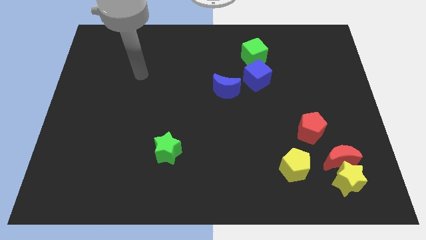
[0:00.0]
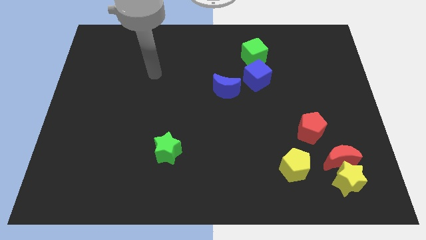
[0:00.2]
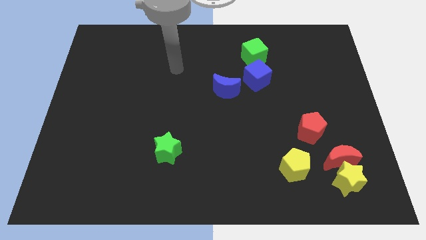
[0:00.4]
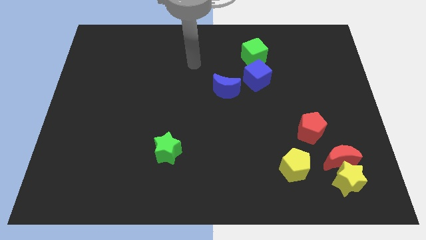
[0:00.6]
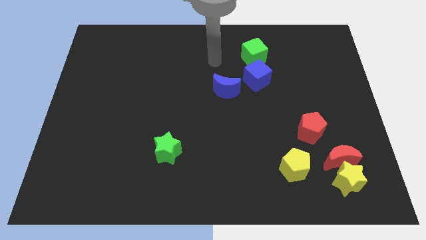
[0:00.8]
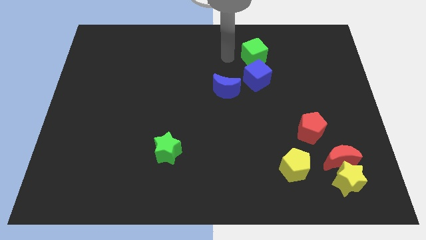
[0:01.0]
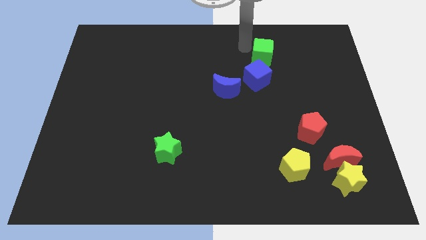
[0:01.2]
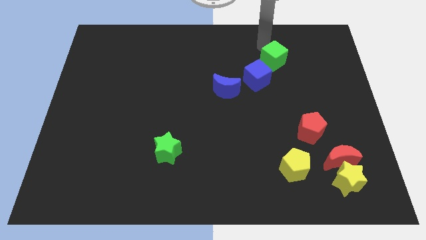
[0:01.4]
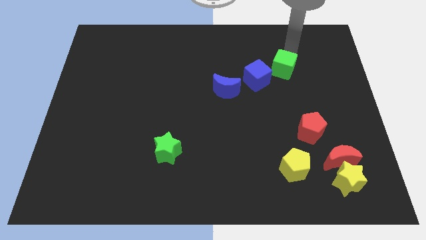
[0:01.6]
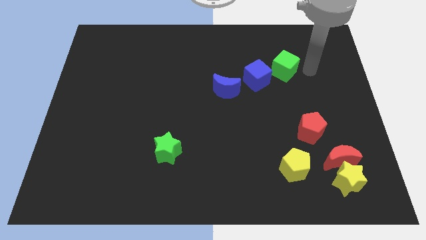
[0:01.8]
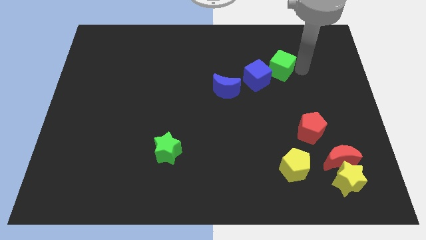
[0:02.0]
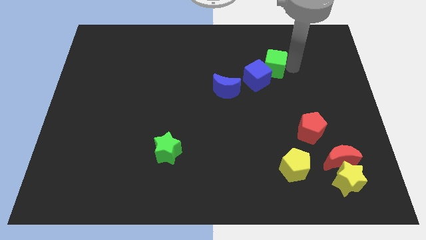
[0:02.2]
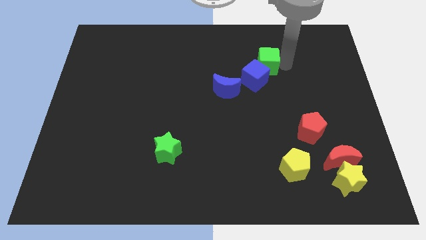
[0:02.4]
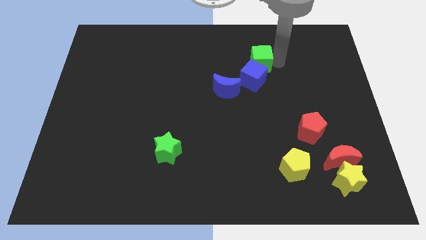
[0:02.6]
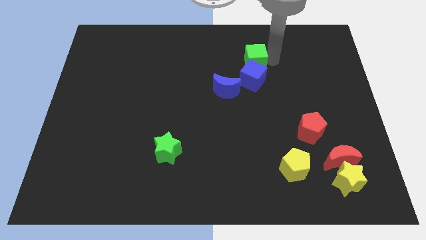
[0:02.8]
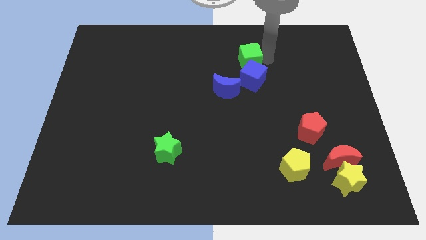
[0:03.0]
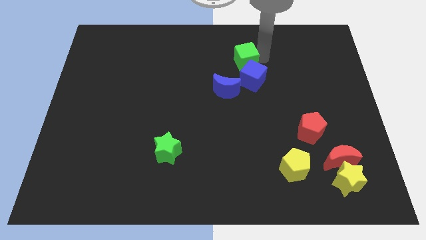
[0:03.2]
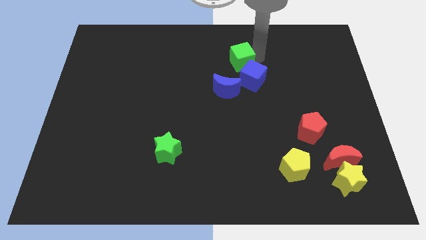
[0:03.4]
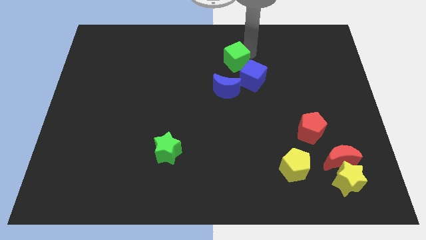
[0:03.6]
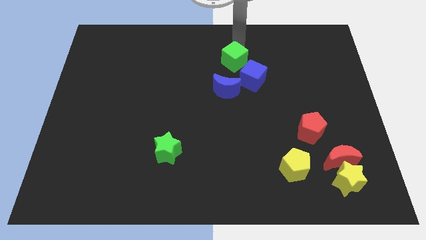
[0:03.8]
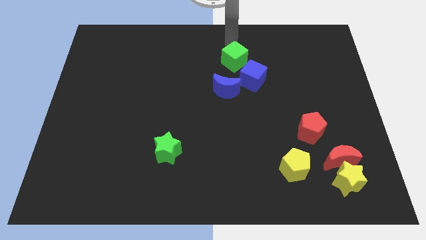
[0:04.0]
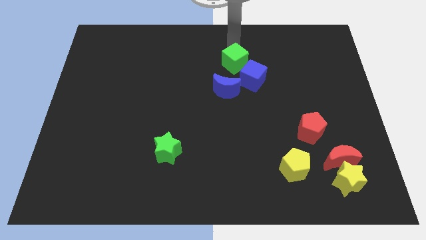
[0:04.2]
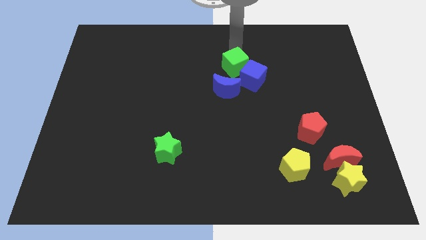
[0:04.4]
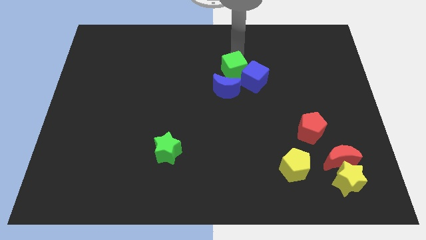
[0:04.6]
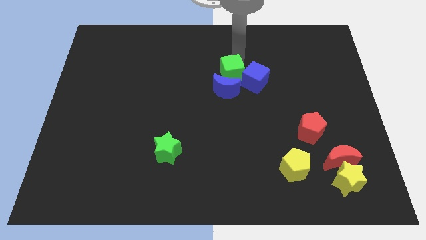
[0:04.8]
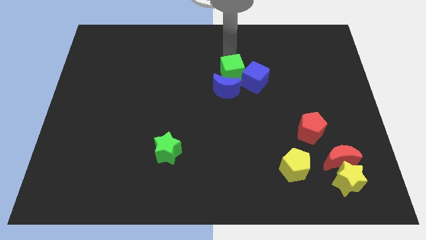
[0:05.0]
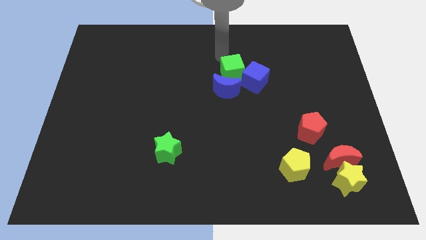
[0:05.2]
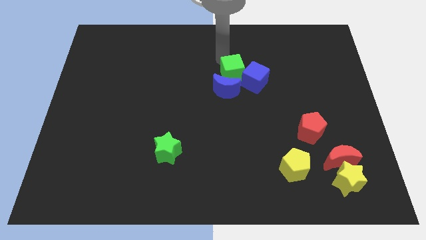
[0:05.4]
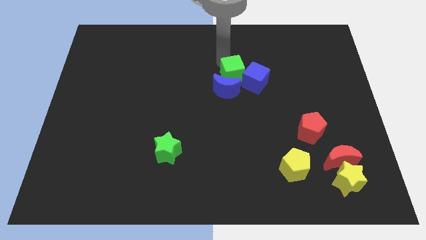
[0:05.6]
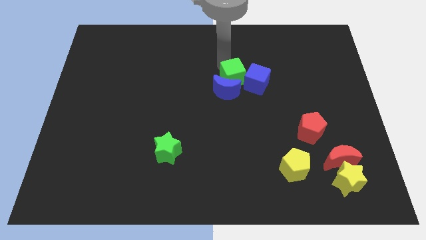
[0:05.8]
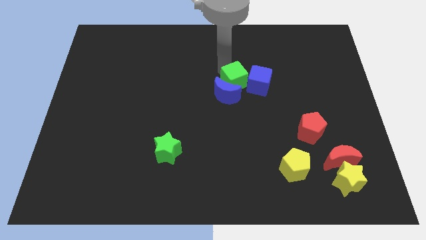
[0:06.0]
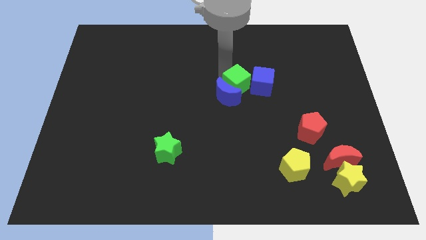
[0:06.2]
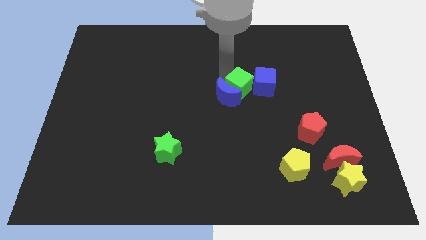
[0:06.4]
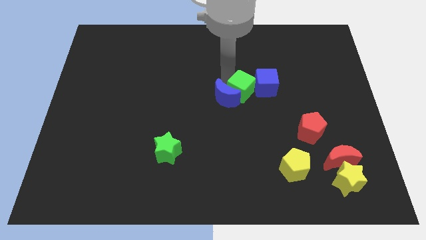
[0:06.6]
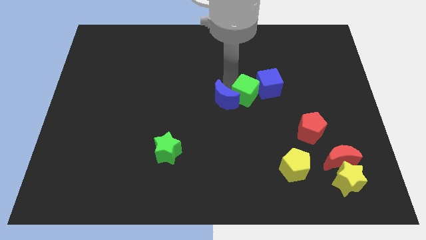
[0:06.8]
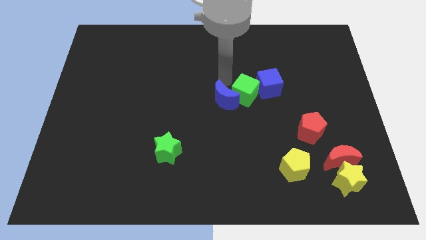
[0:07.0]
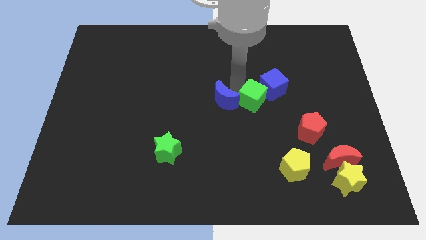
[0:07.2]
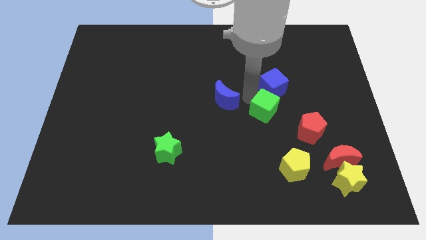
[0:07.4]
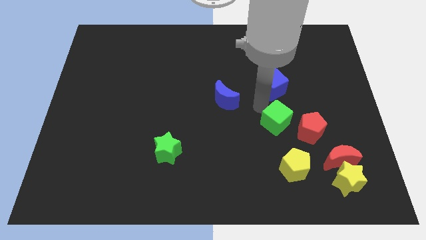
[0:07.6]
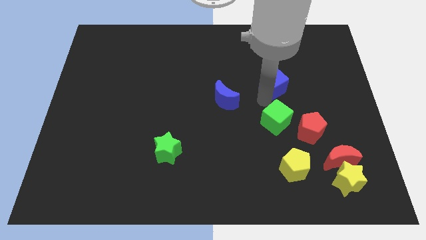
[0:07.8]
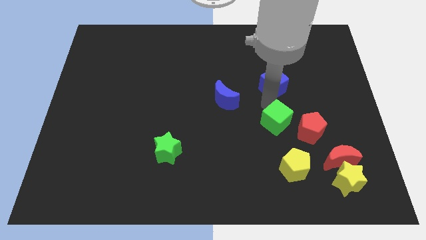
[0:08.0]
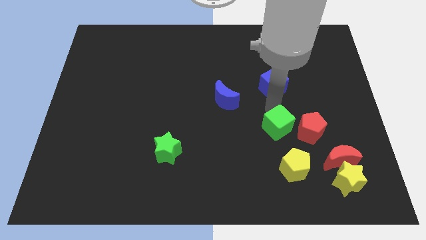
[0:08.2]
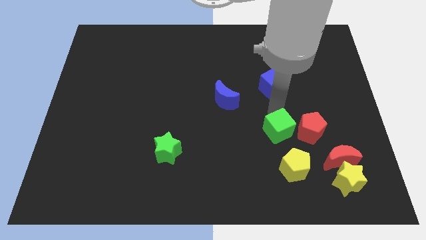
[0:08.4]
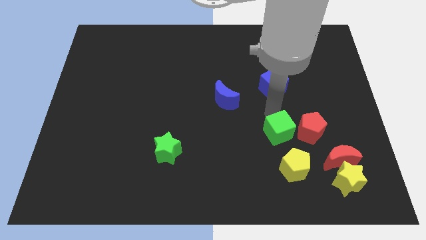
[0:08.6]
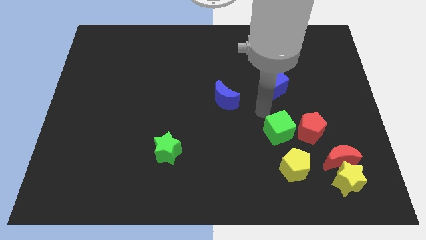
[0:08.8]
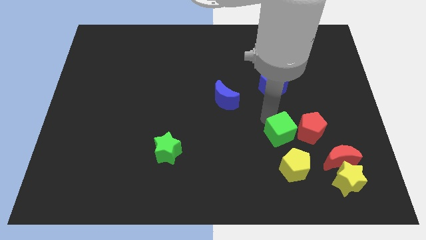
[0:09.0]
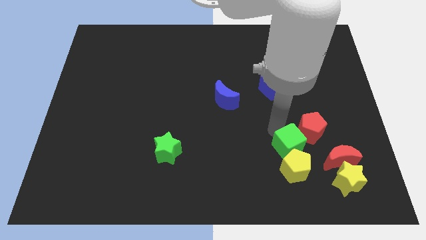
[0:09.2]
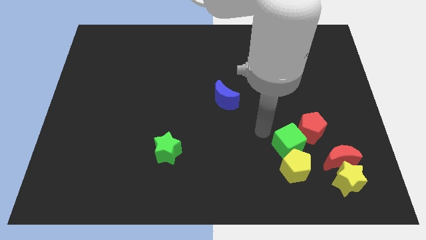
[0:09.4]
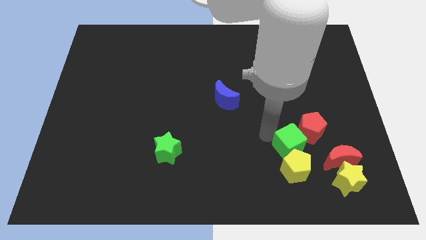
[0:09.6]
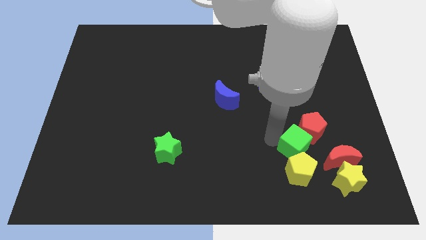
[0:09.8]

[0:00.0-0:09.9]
push the green cube to the top left of the yellow star

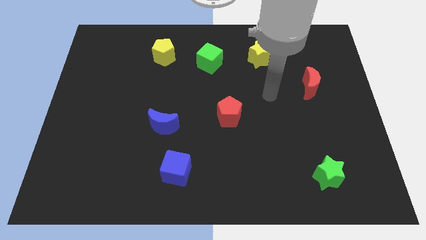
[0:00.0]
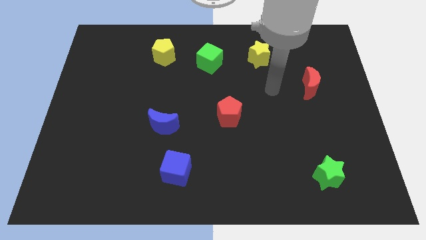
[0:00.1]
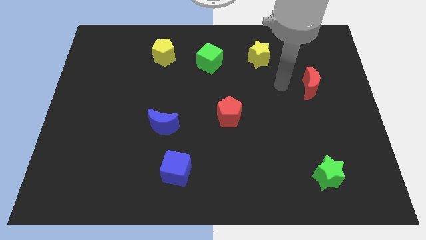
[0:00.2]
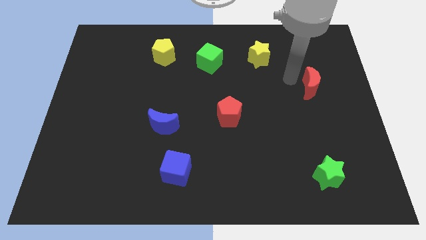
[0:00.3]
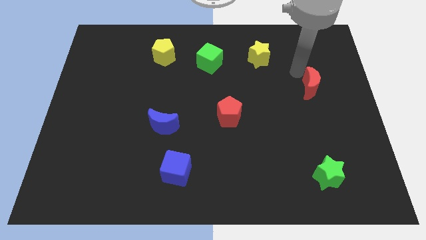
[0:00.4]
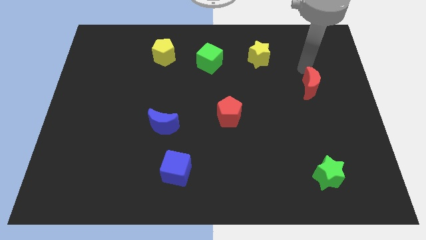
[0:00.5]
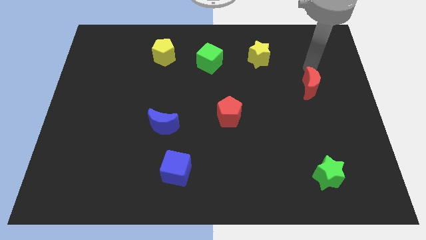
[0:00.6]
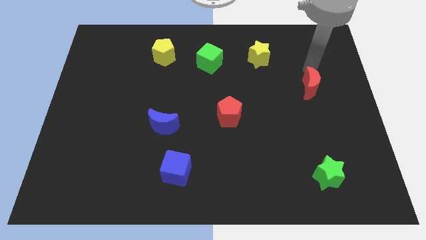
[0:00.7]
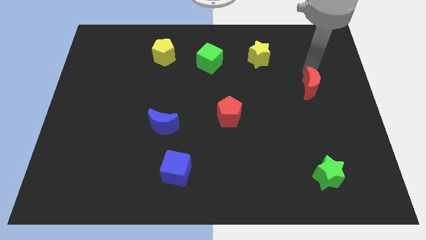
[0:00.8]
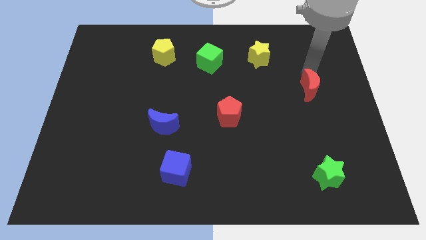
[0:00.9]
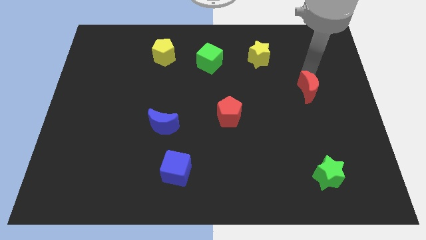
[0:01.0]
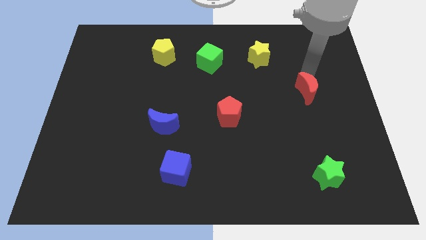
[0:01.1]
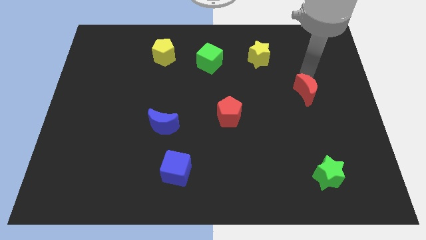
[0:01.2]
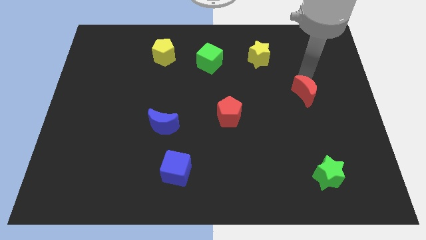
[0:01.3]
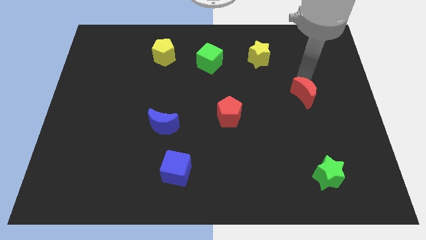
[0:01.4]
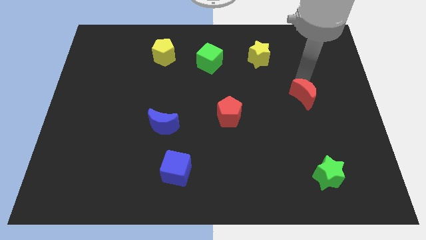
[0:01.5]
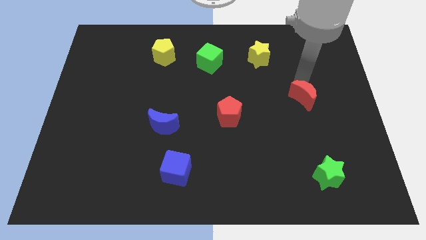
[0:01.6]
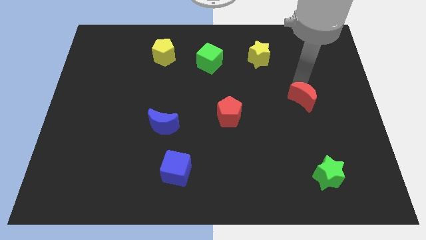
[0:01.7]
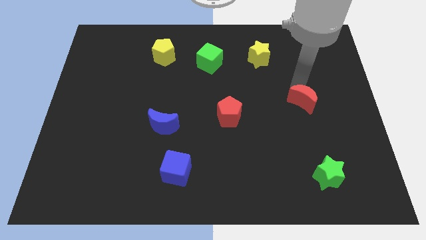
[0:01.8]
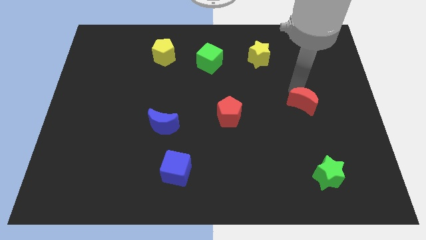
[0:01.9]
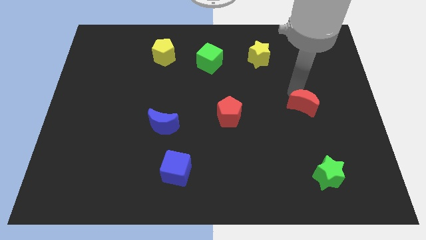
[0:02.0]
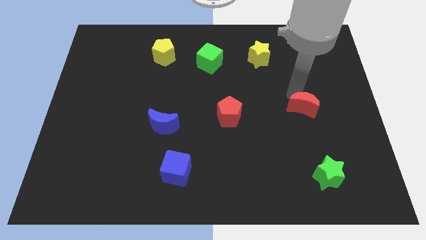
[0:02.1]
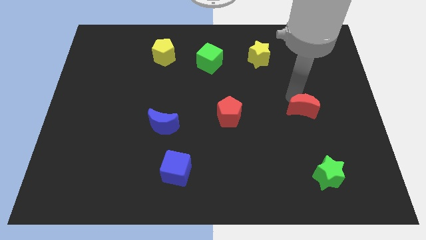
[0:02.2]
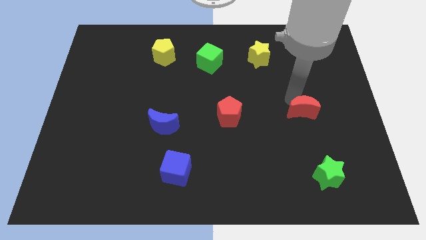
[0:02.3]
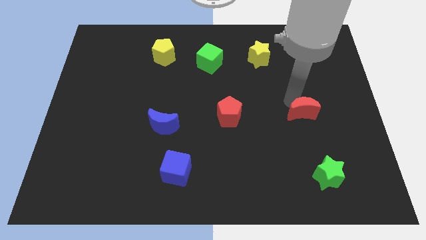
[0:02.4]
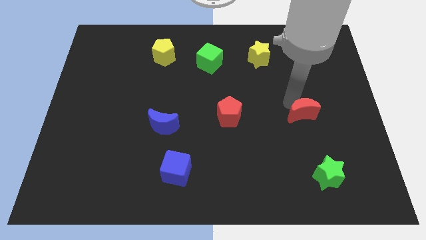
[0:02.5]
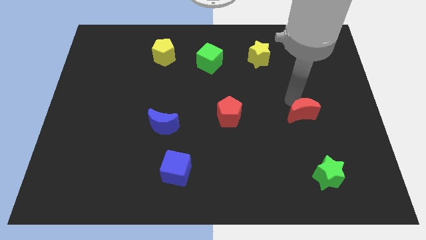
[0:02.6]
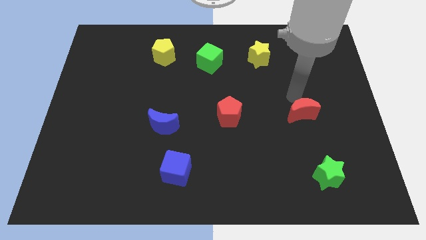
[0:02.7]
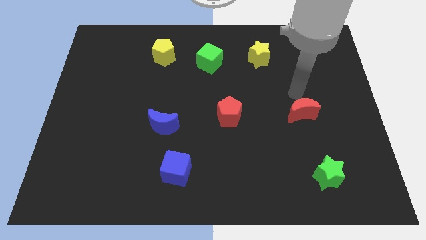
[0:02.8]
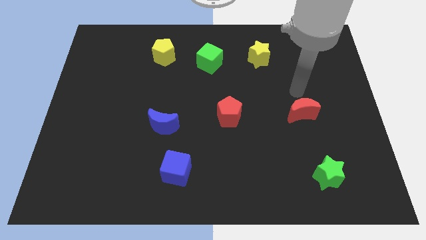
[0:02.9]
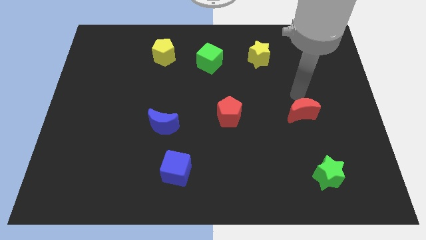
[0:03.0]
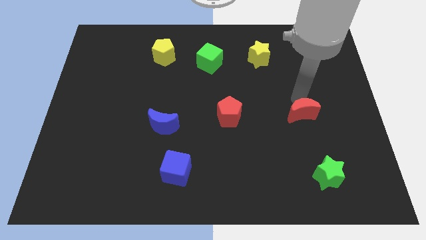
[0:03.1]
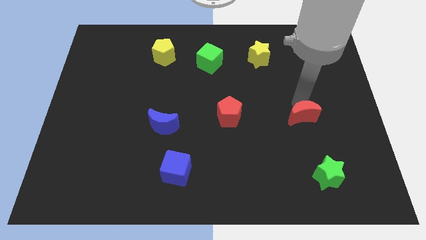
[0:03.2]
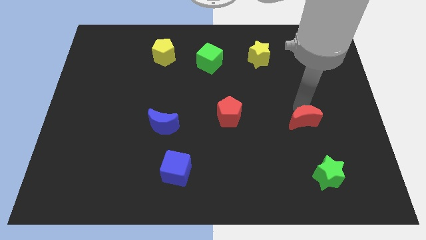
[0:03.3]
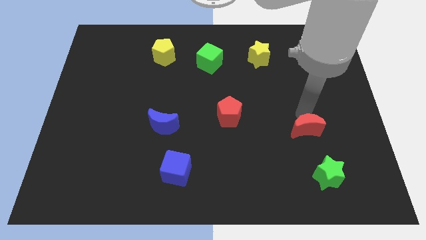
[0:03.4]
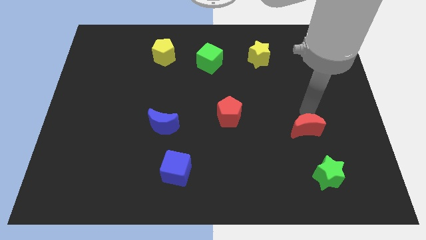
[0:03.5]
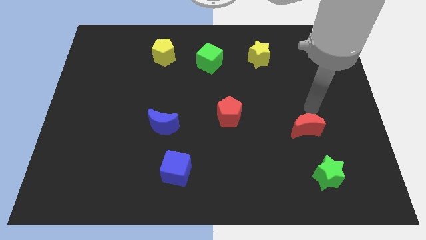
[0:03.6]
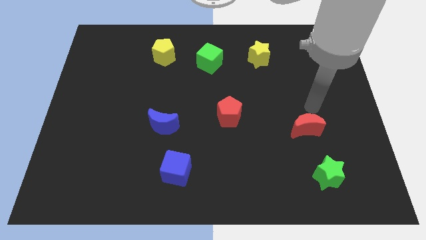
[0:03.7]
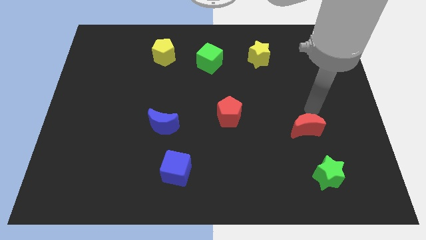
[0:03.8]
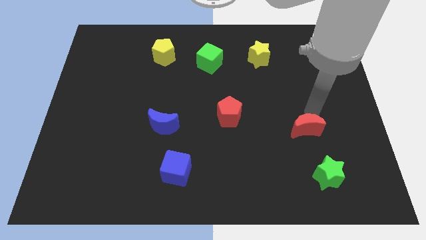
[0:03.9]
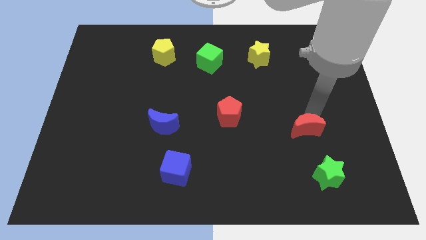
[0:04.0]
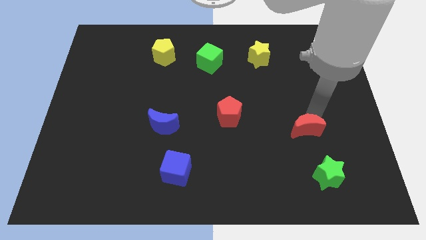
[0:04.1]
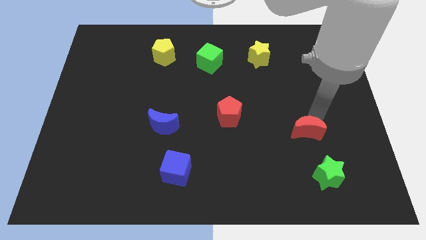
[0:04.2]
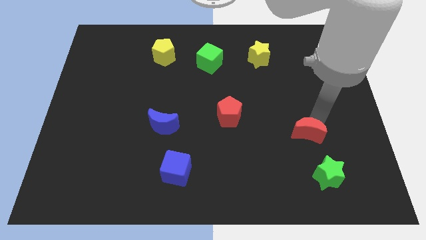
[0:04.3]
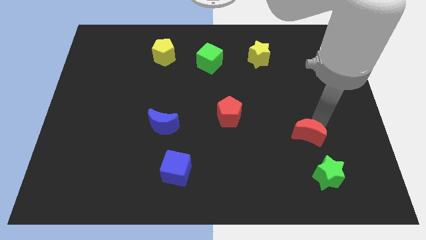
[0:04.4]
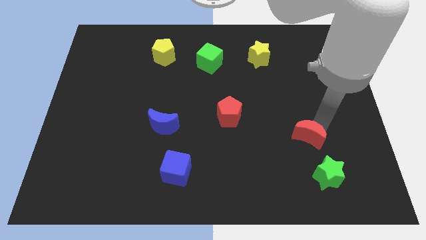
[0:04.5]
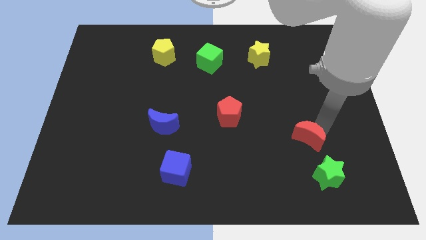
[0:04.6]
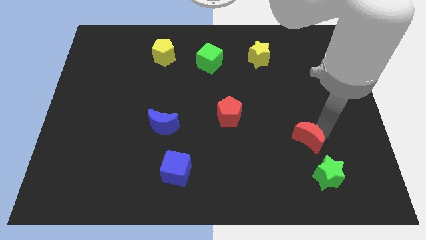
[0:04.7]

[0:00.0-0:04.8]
push the red moon to the top left of the green star
